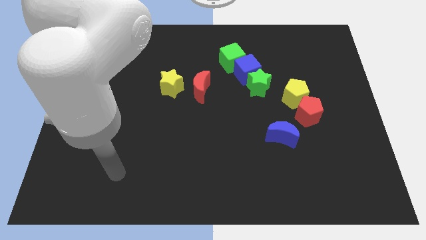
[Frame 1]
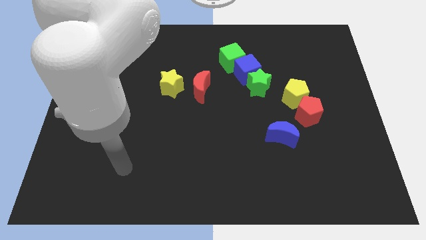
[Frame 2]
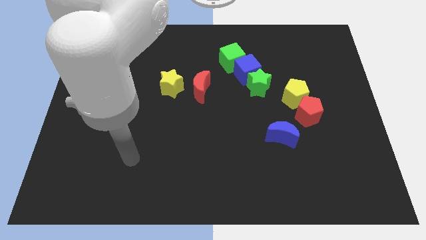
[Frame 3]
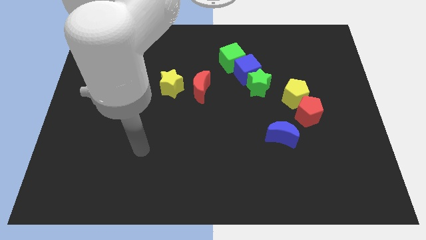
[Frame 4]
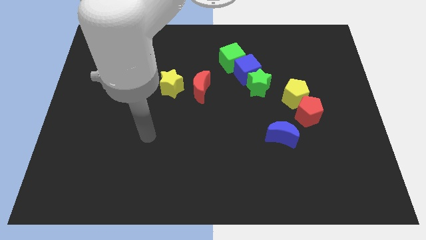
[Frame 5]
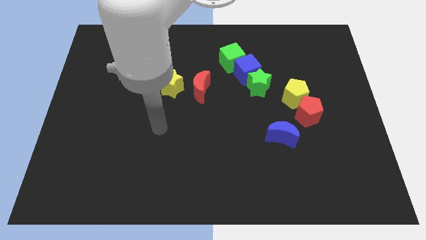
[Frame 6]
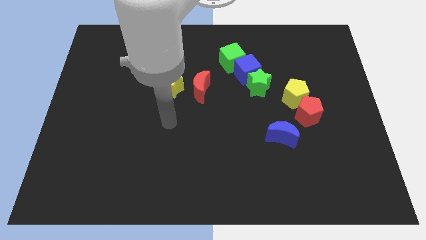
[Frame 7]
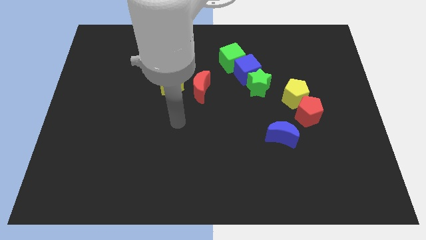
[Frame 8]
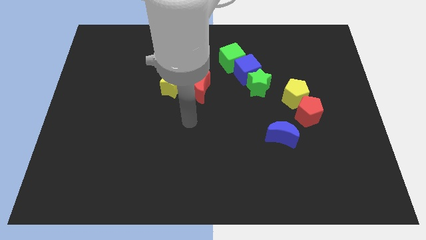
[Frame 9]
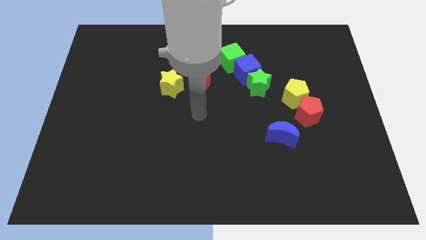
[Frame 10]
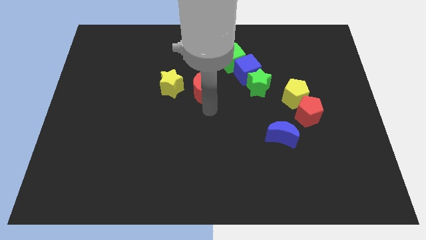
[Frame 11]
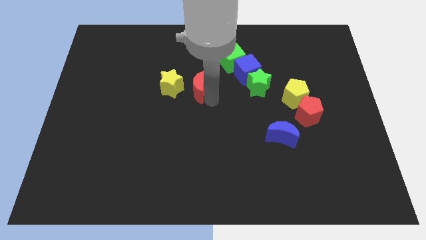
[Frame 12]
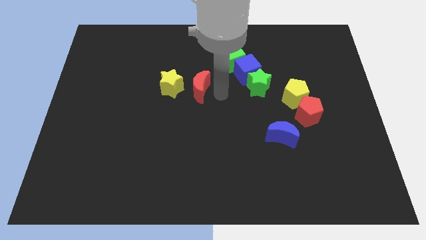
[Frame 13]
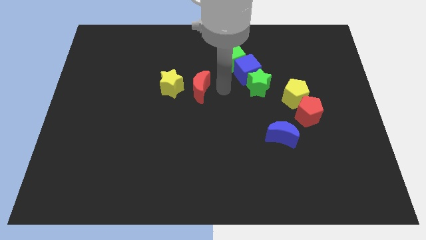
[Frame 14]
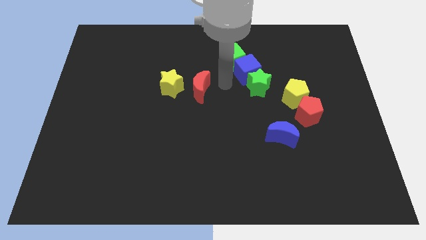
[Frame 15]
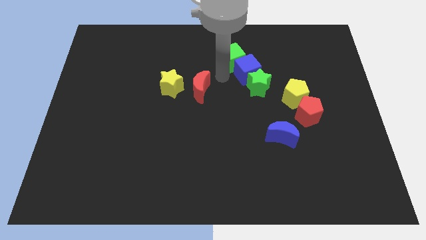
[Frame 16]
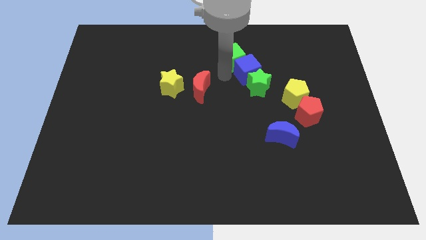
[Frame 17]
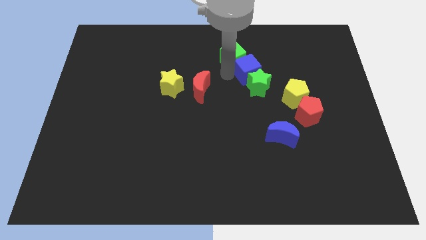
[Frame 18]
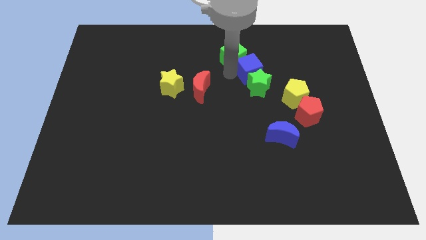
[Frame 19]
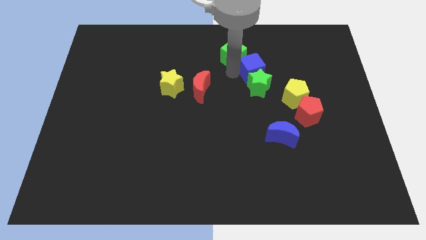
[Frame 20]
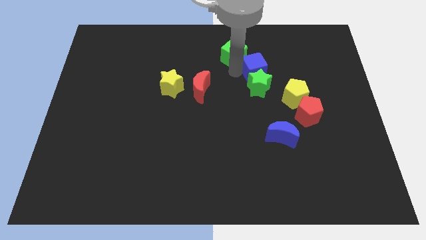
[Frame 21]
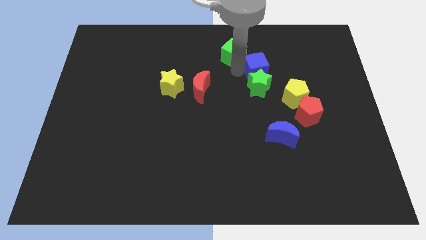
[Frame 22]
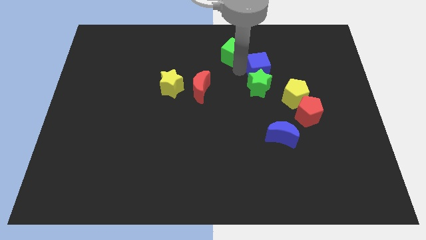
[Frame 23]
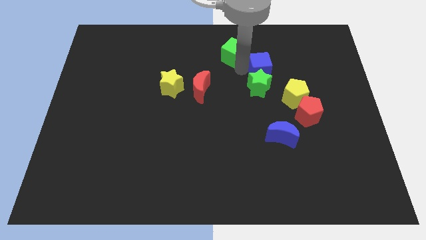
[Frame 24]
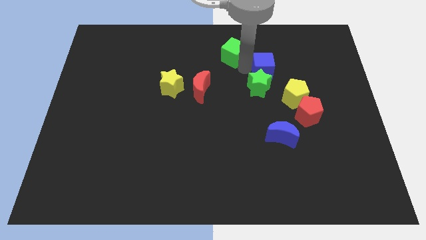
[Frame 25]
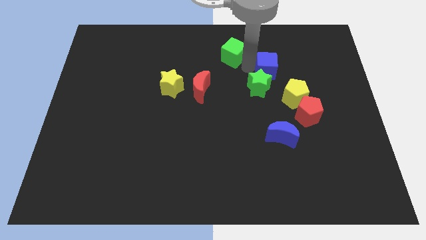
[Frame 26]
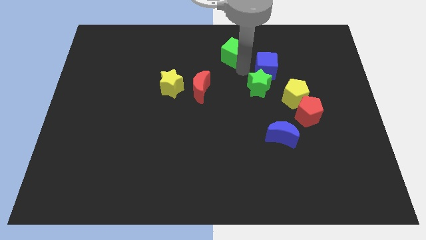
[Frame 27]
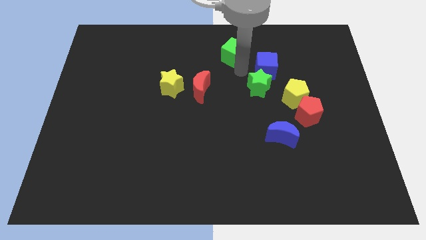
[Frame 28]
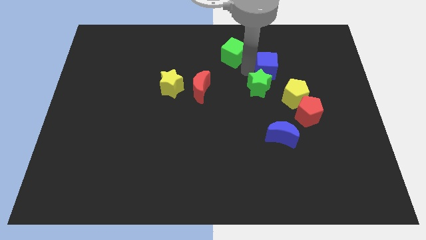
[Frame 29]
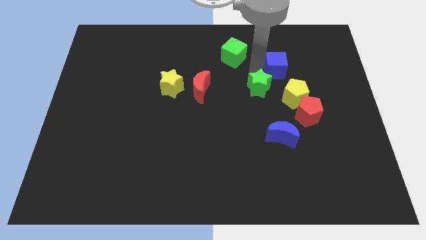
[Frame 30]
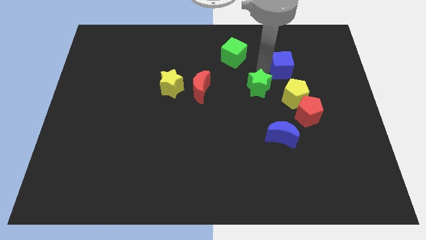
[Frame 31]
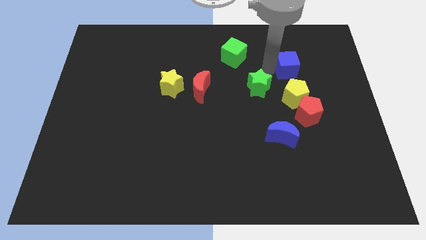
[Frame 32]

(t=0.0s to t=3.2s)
separate the blue cube from the green star and green cube

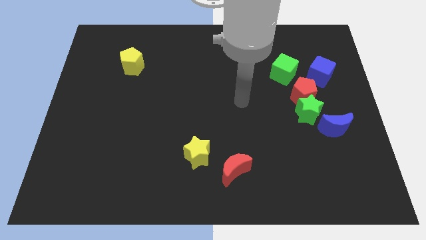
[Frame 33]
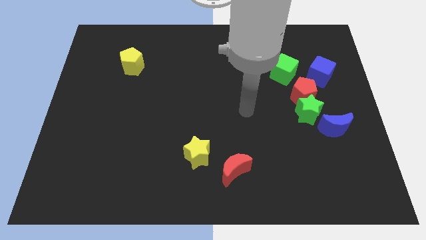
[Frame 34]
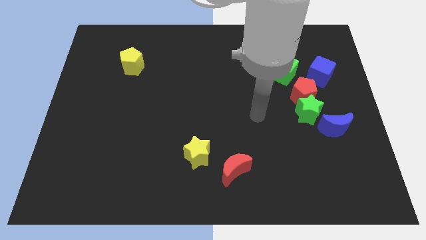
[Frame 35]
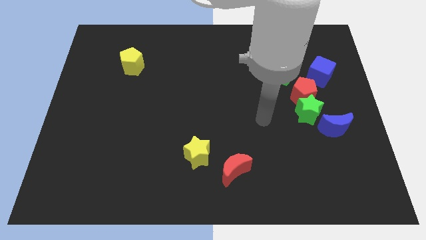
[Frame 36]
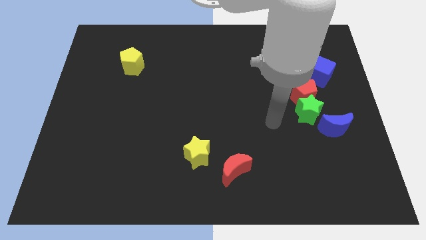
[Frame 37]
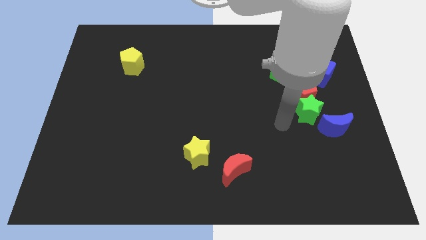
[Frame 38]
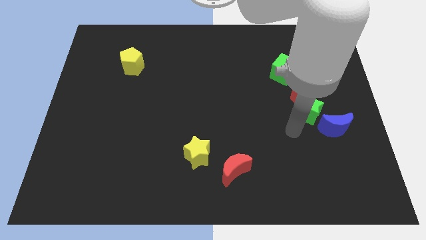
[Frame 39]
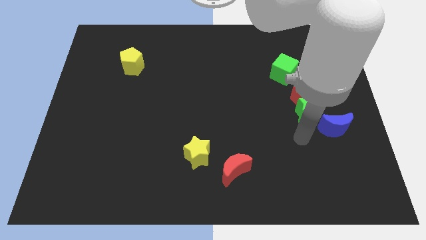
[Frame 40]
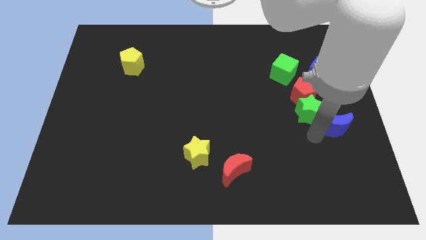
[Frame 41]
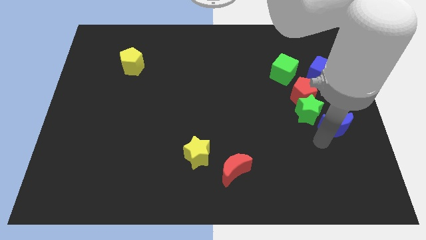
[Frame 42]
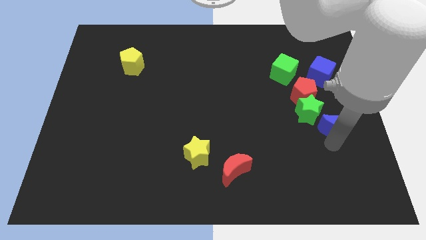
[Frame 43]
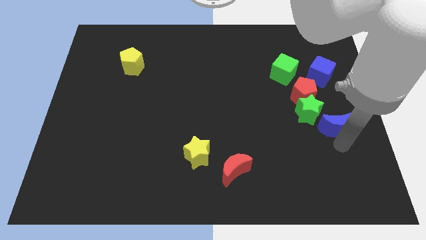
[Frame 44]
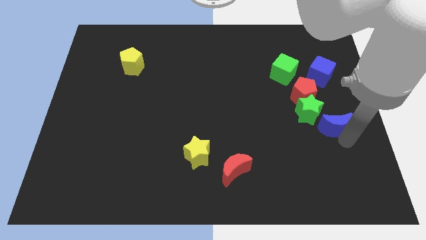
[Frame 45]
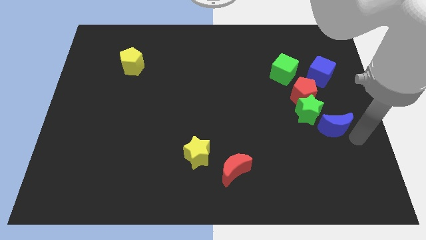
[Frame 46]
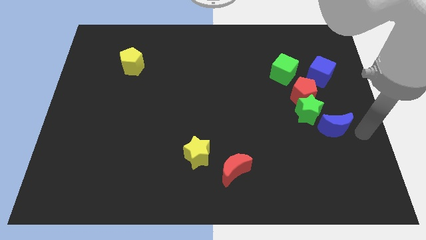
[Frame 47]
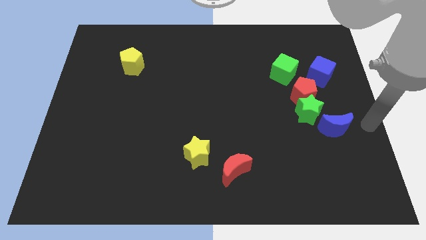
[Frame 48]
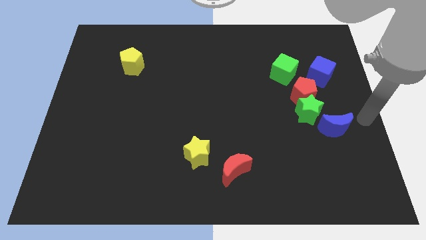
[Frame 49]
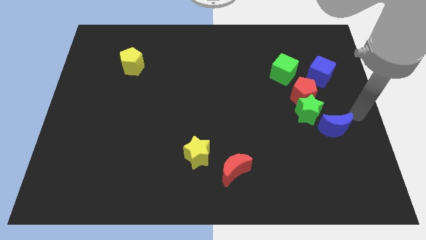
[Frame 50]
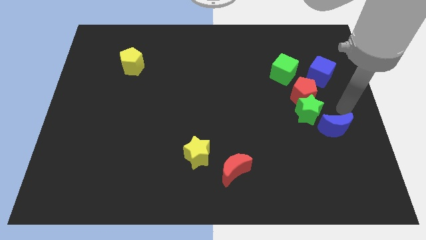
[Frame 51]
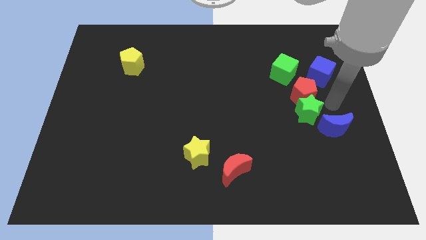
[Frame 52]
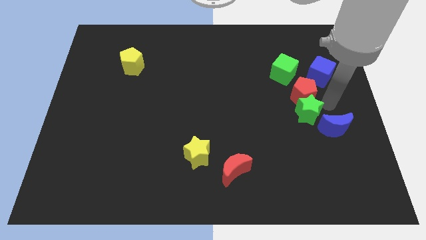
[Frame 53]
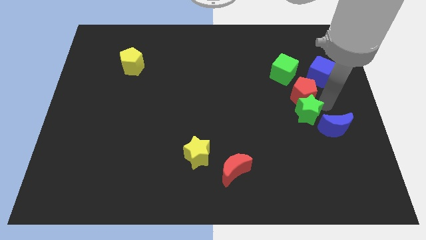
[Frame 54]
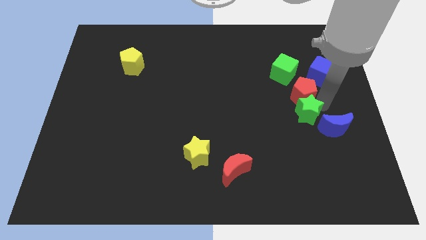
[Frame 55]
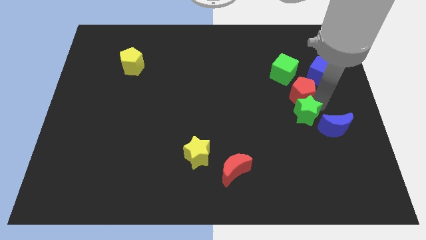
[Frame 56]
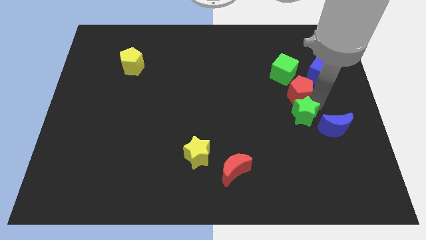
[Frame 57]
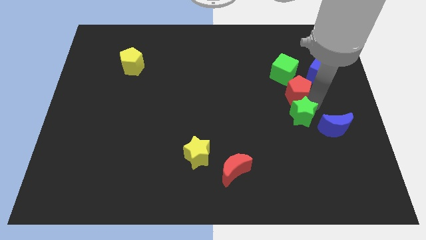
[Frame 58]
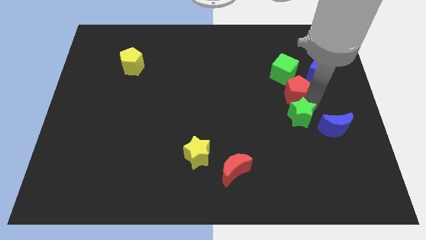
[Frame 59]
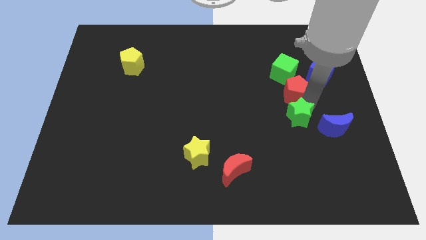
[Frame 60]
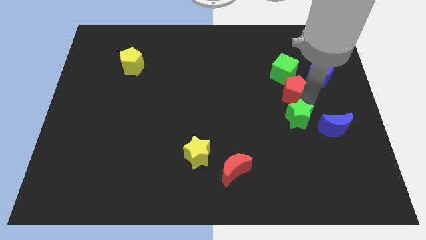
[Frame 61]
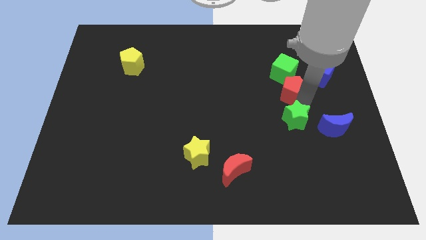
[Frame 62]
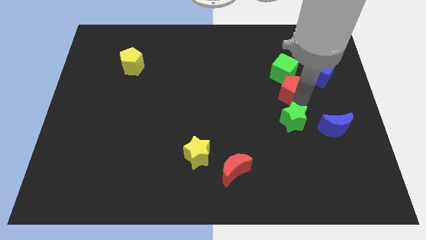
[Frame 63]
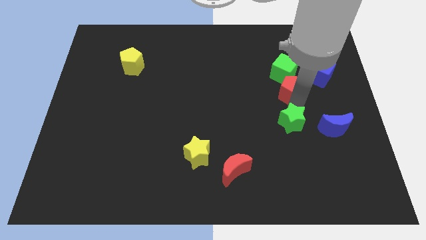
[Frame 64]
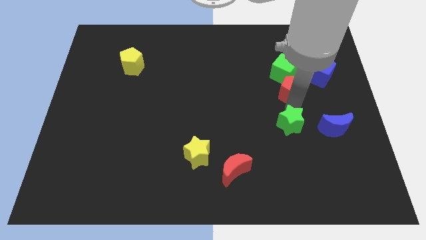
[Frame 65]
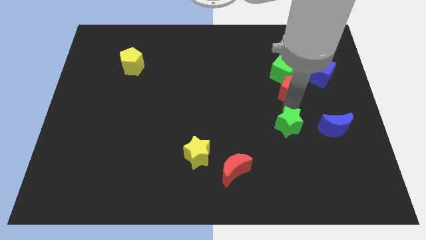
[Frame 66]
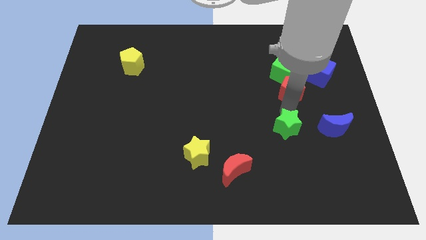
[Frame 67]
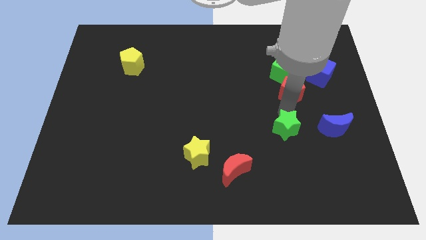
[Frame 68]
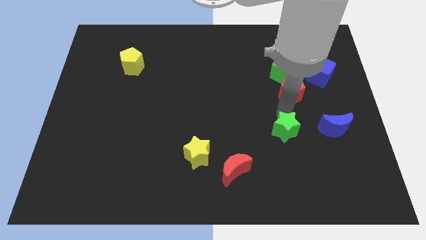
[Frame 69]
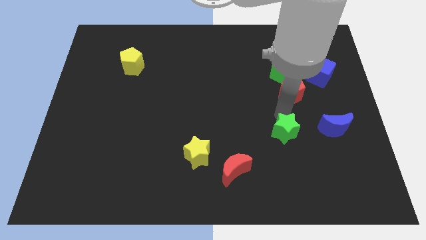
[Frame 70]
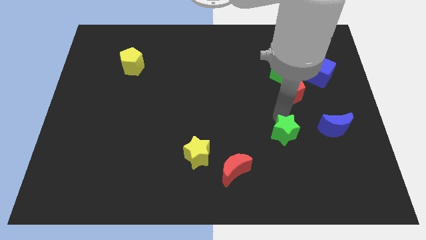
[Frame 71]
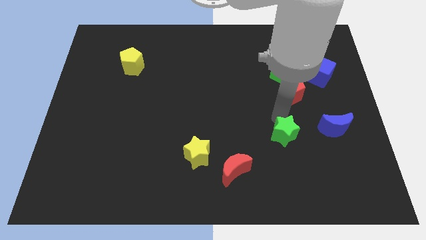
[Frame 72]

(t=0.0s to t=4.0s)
separate the green star from the red pentagon and blue moon

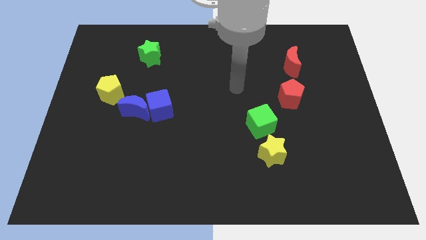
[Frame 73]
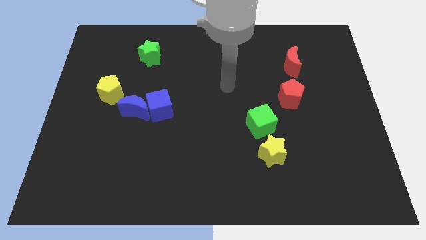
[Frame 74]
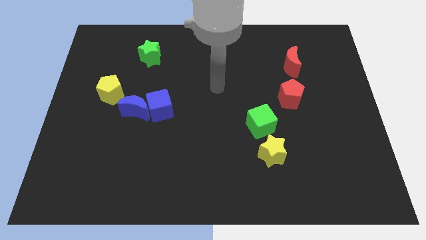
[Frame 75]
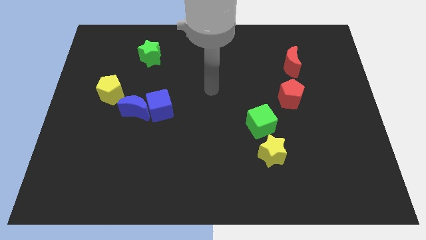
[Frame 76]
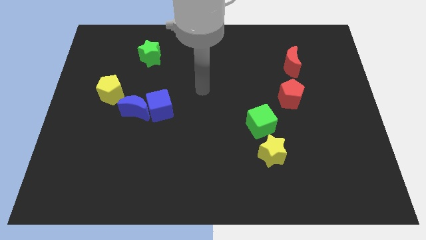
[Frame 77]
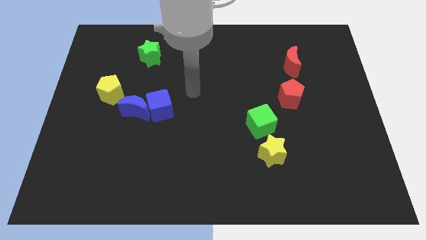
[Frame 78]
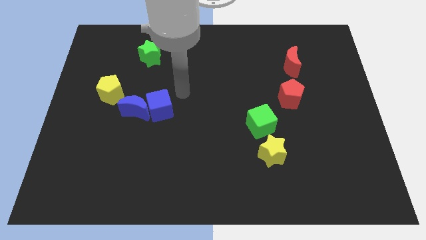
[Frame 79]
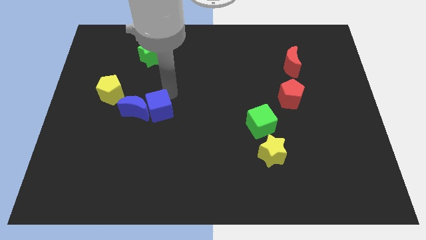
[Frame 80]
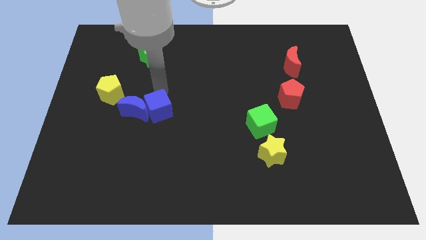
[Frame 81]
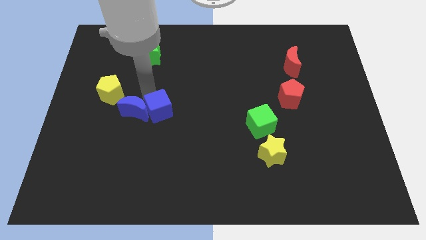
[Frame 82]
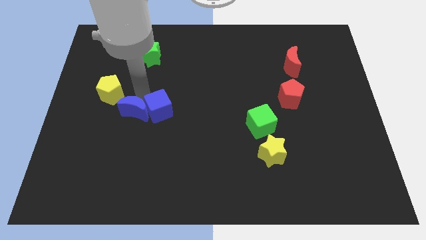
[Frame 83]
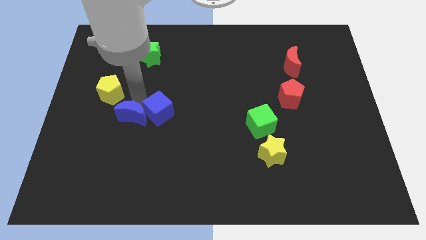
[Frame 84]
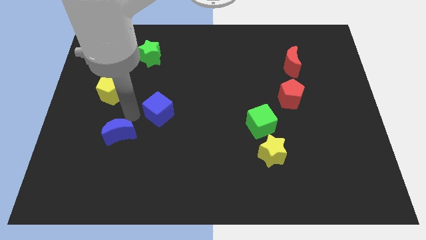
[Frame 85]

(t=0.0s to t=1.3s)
pull the blue cube apart from the blue moon

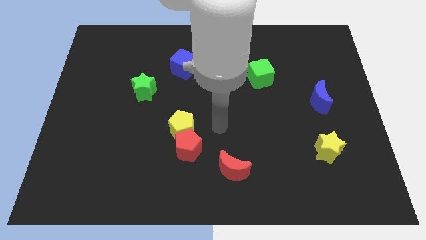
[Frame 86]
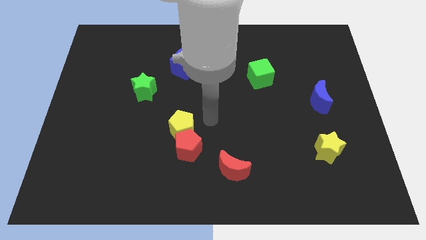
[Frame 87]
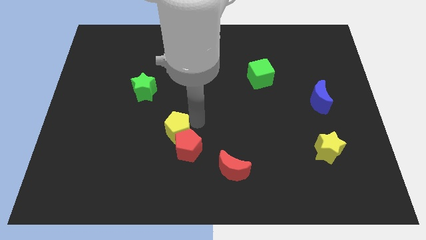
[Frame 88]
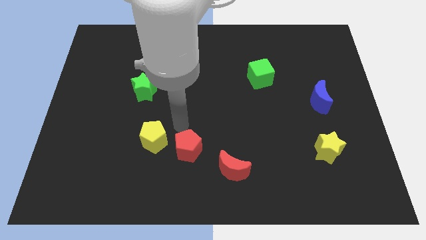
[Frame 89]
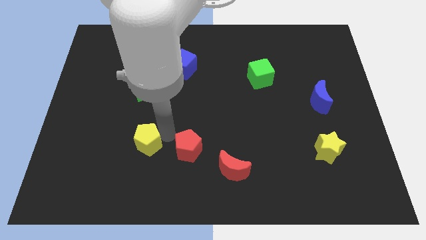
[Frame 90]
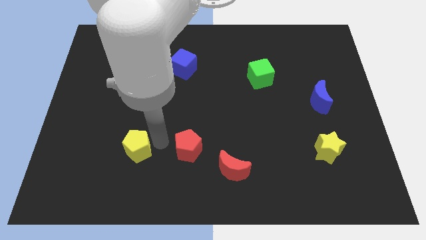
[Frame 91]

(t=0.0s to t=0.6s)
move the red pentagon away from the yellow pentagon

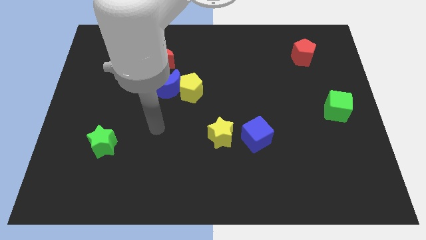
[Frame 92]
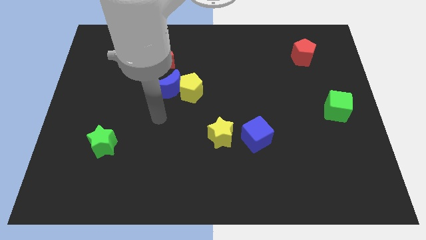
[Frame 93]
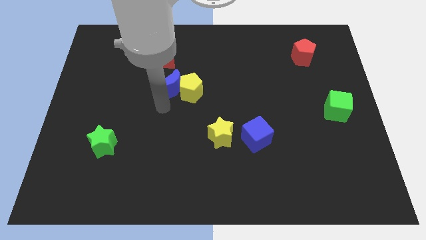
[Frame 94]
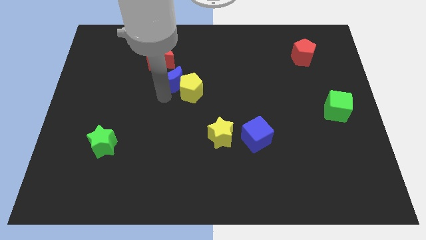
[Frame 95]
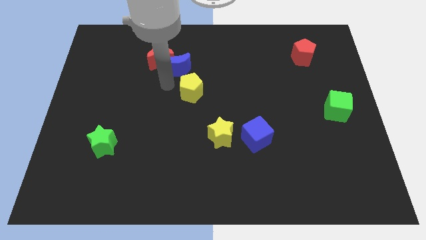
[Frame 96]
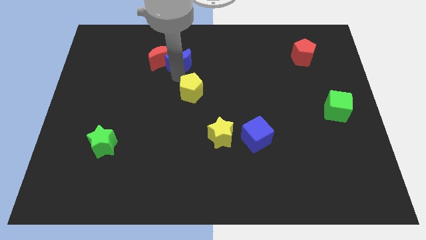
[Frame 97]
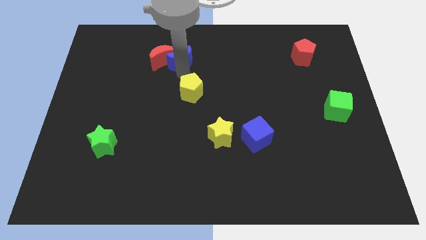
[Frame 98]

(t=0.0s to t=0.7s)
pull the yellow pentagon apart from the blue moon
